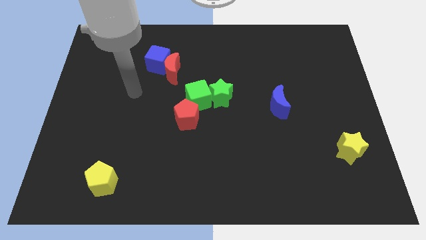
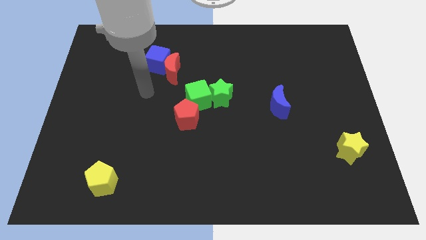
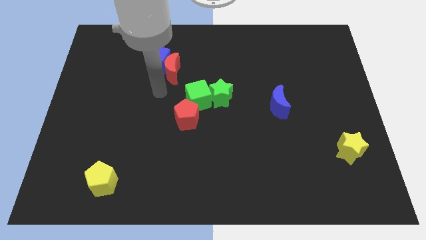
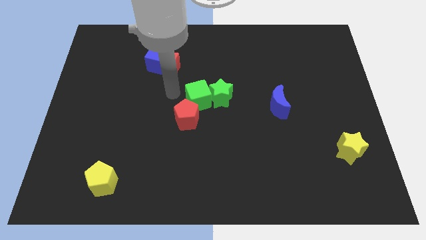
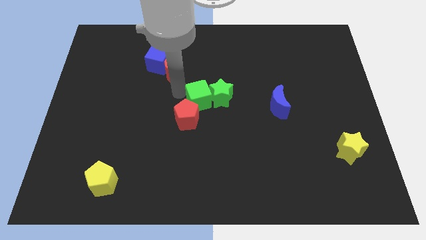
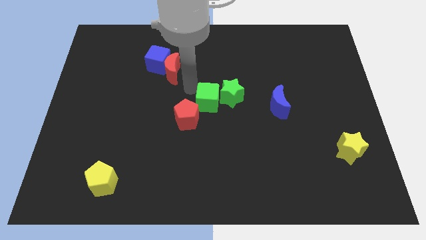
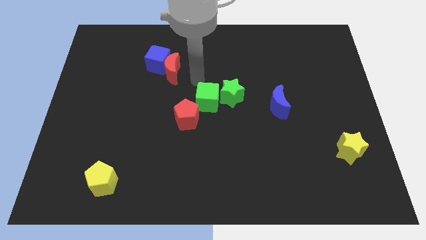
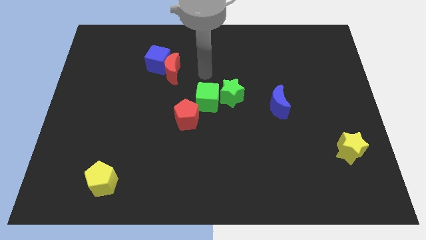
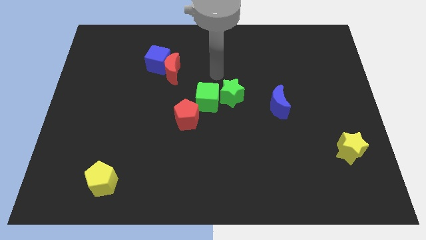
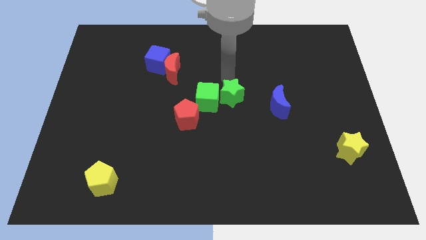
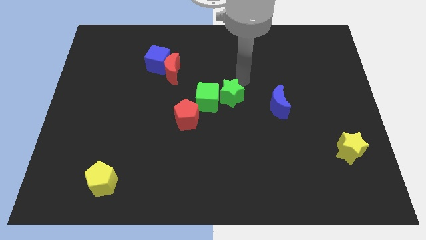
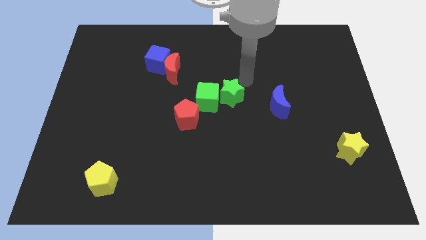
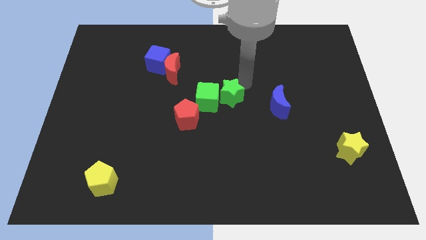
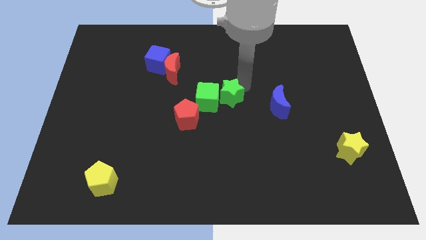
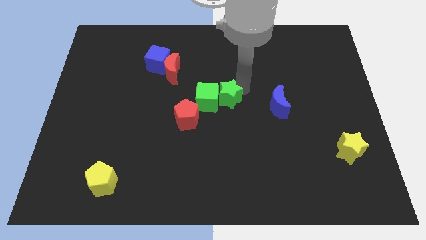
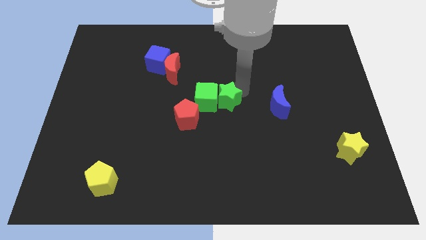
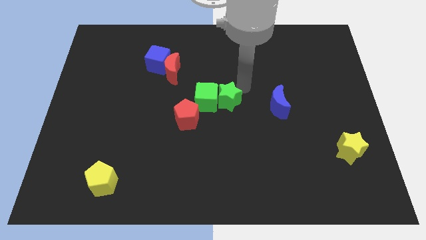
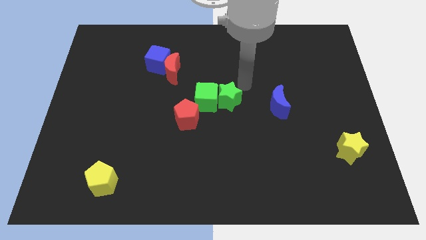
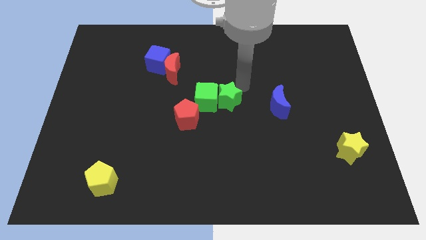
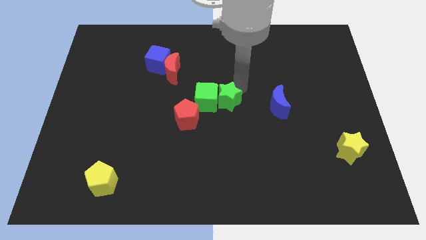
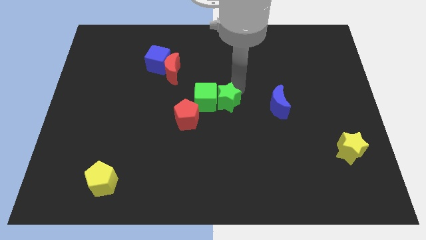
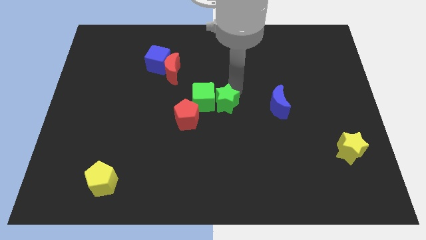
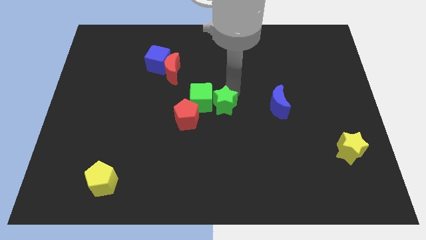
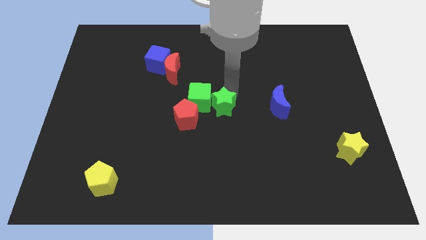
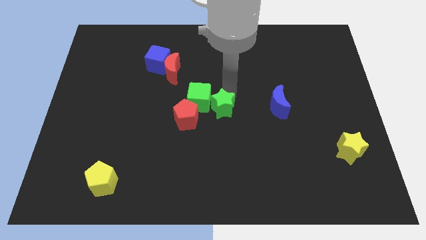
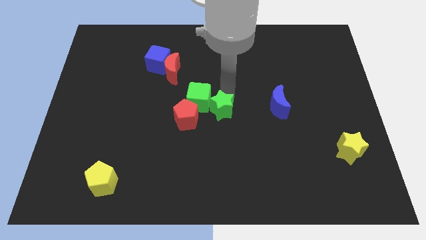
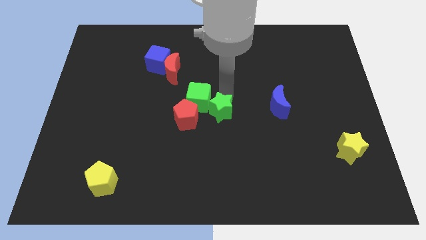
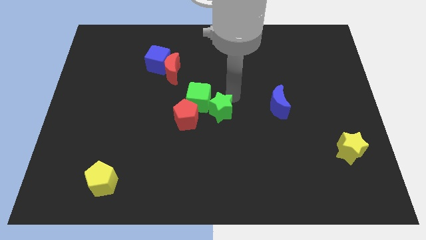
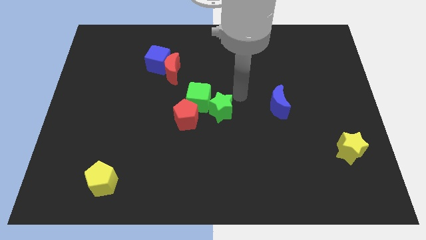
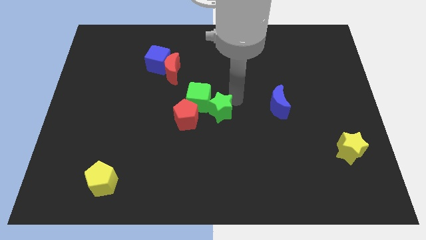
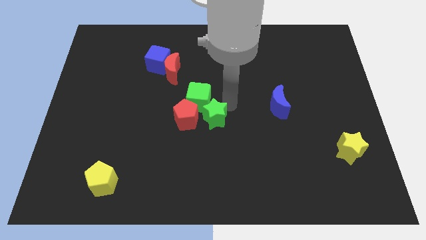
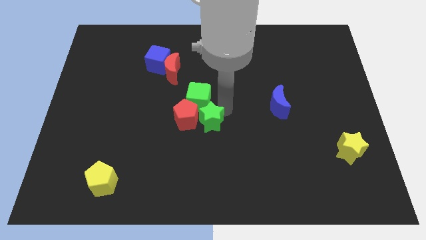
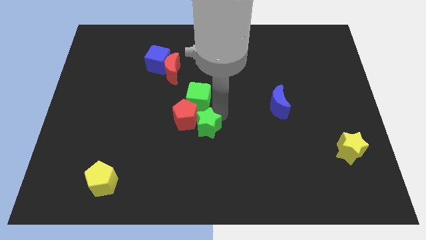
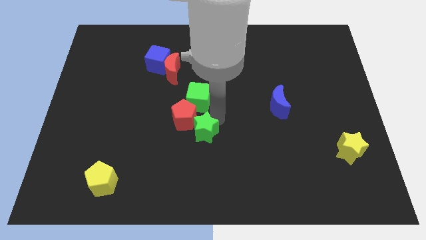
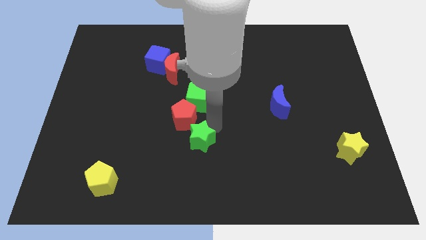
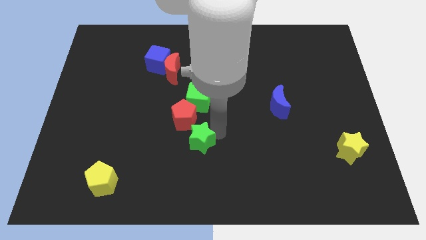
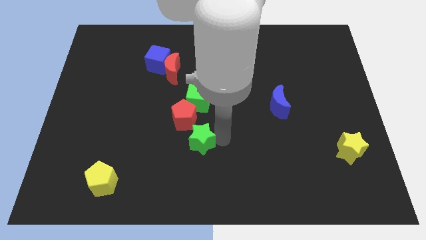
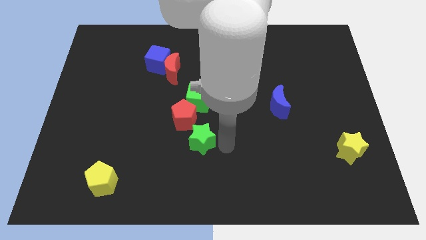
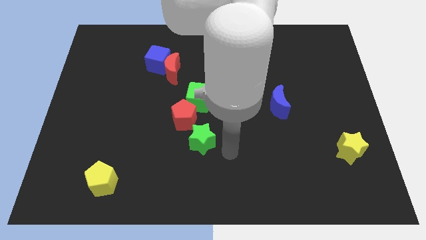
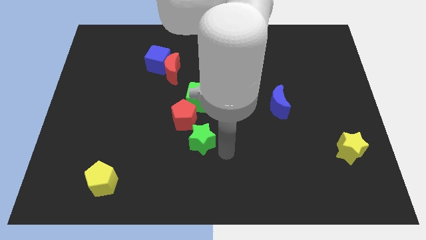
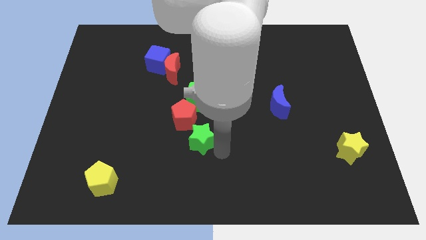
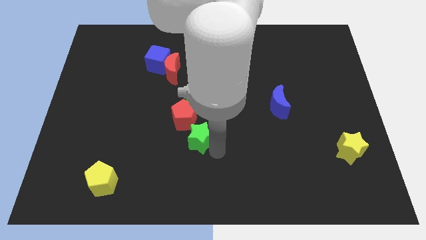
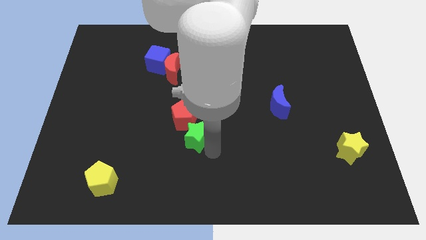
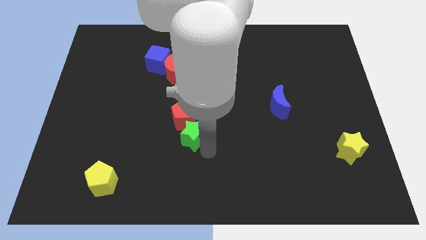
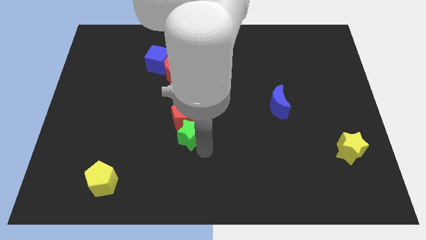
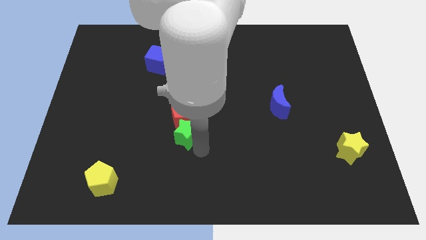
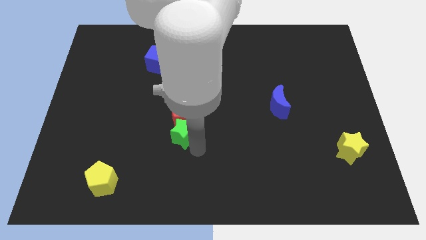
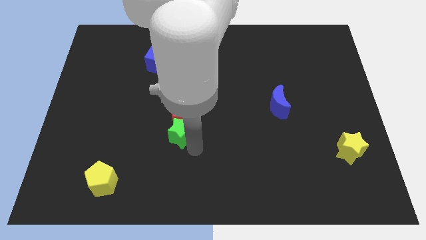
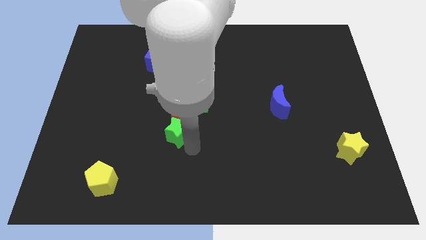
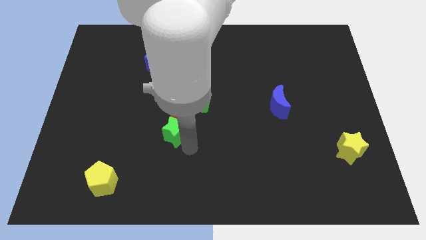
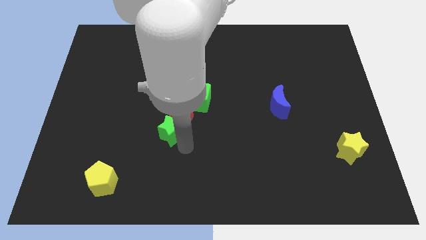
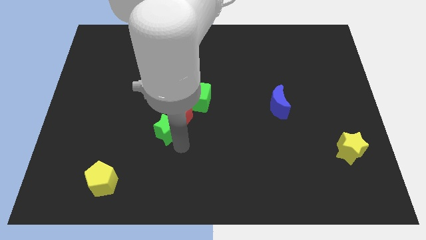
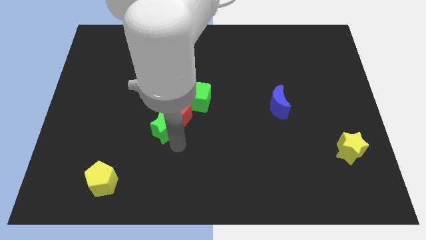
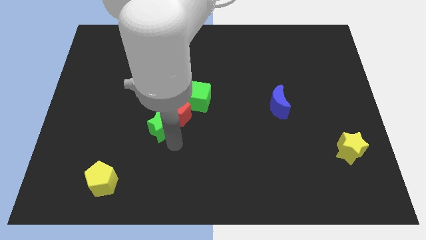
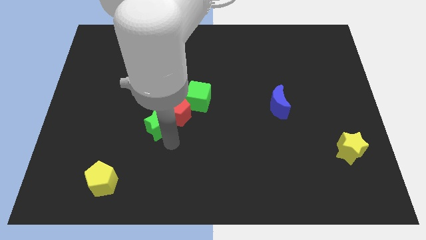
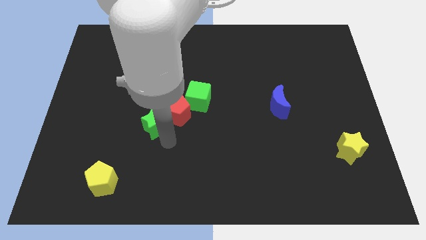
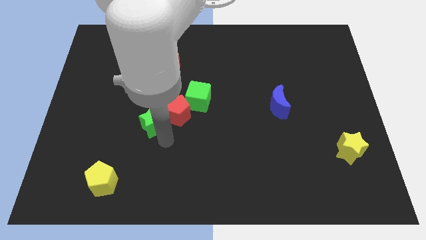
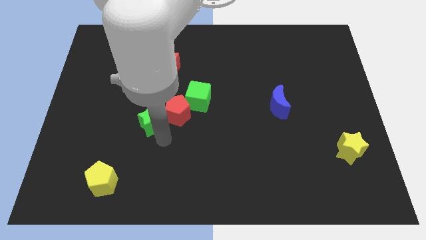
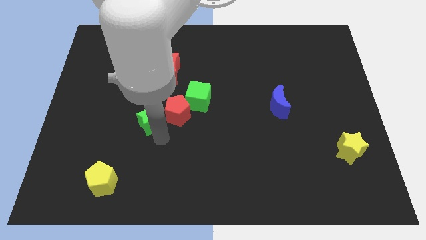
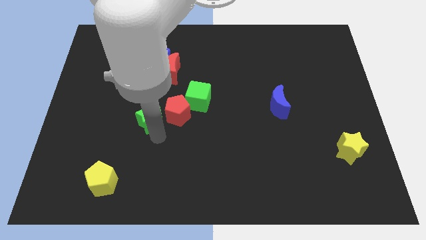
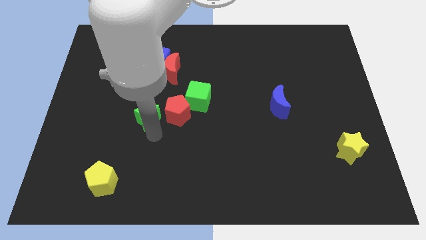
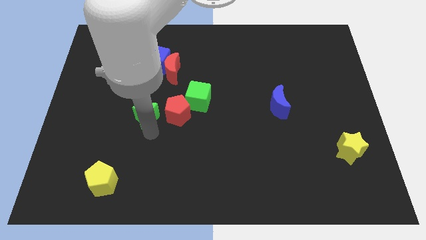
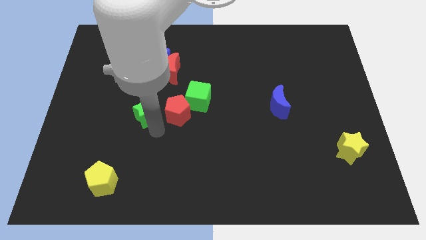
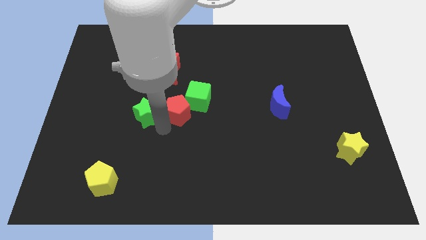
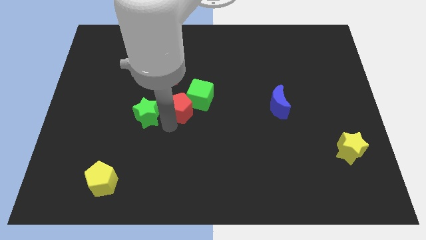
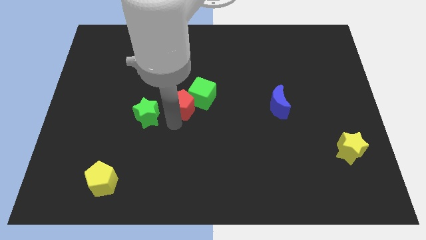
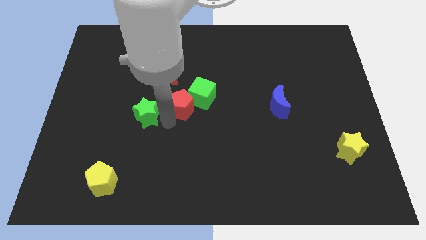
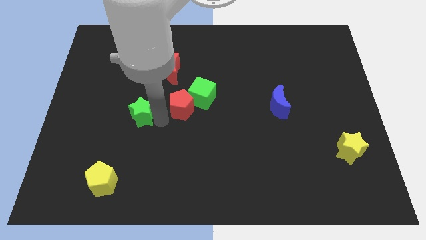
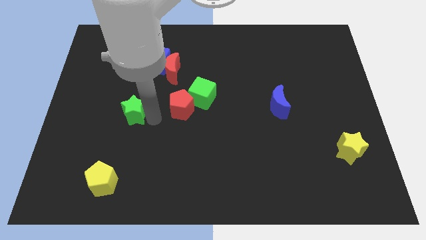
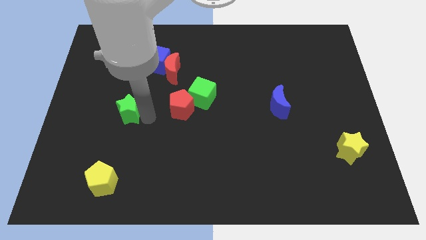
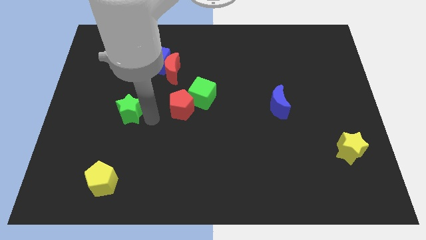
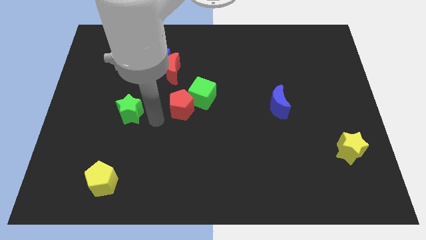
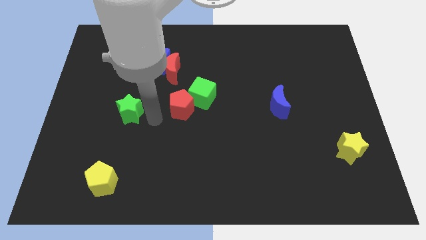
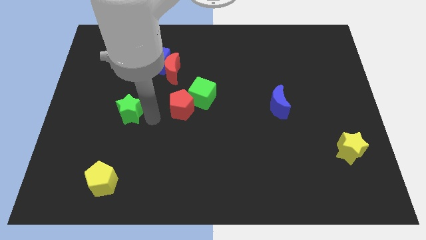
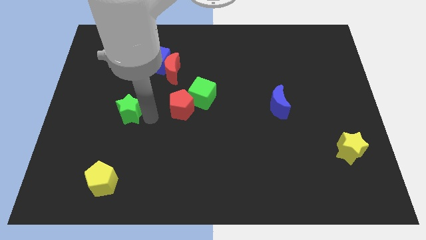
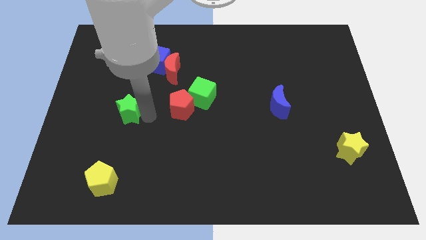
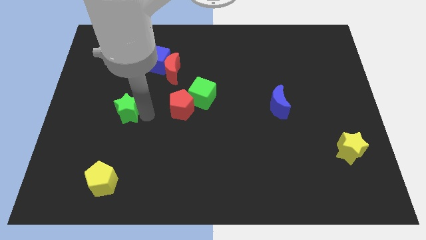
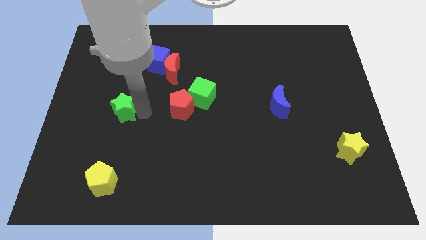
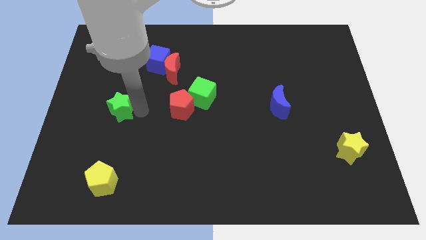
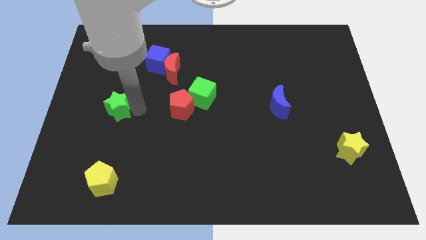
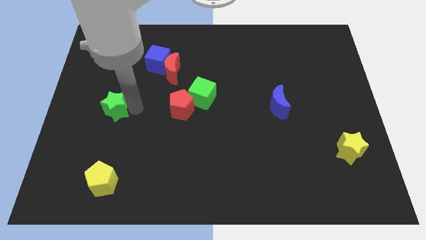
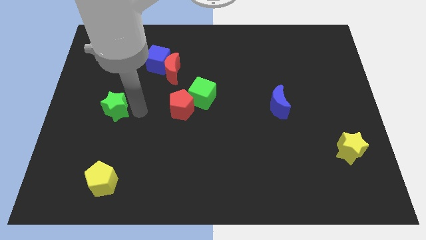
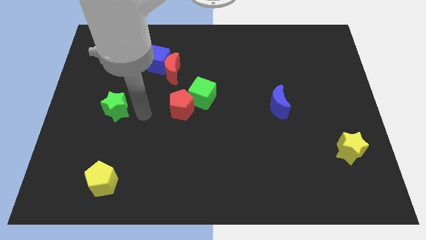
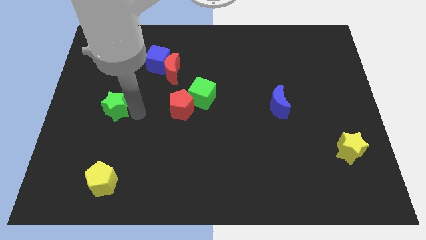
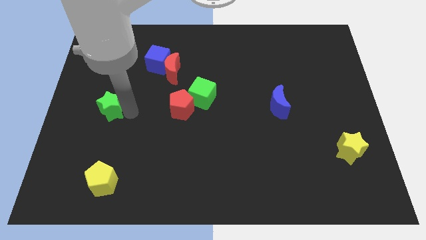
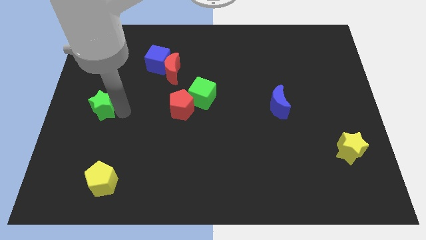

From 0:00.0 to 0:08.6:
slide the green star to the left side

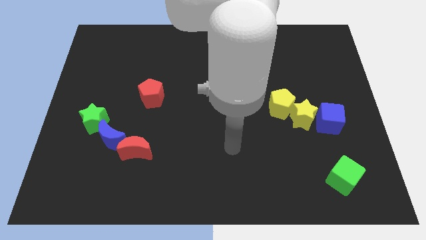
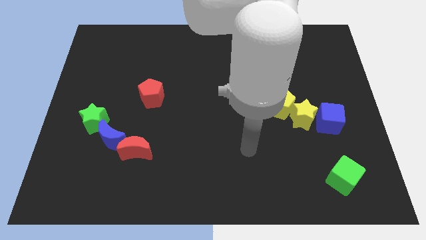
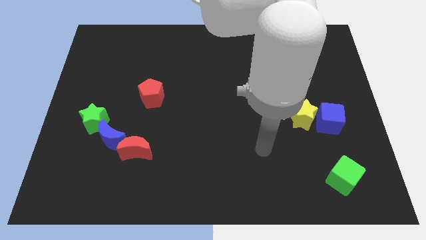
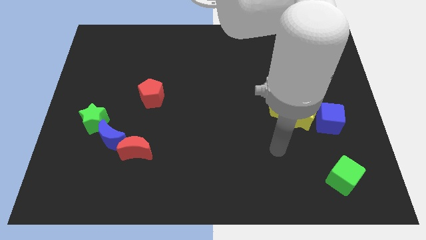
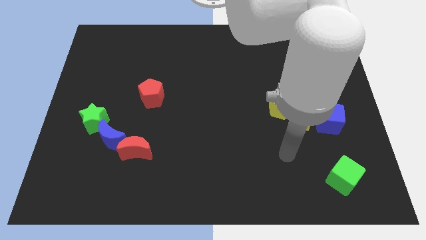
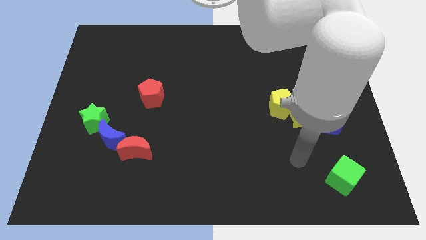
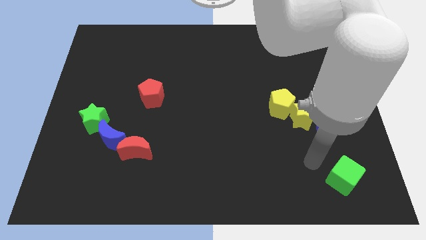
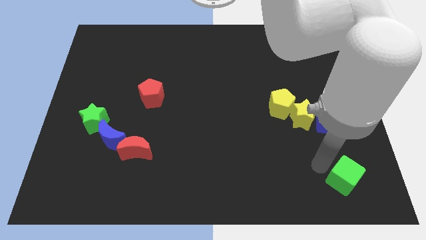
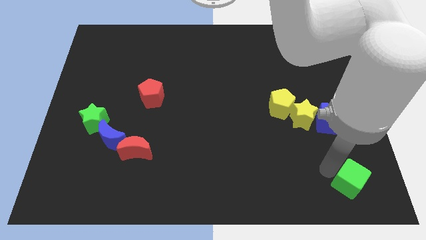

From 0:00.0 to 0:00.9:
slide the green cube to the bottom right
